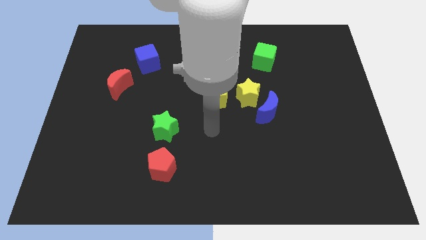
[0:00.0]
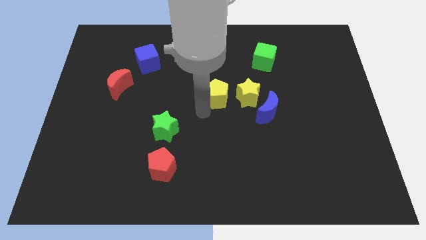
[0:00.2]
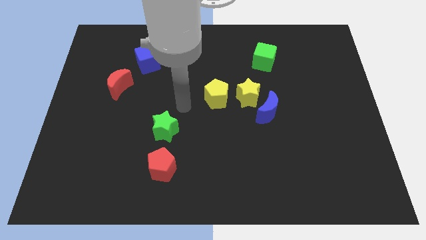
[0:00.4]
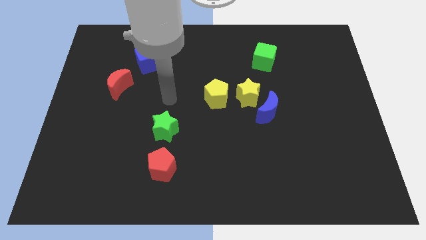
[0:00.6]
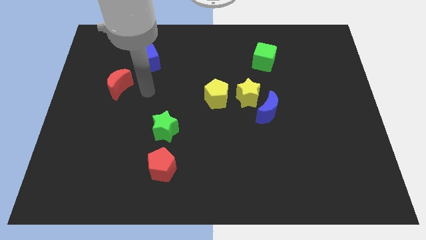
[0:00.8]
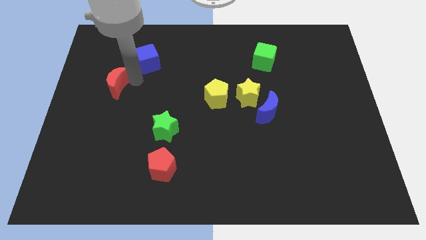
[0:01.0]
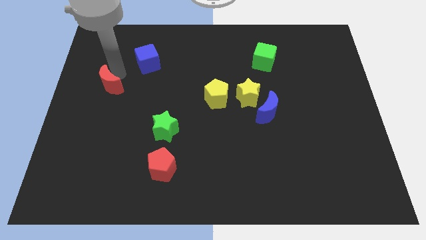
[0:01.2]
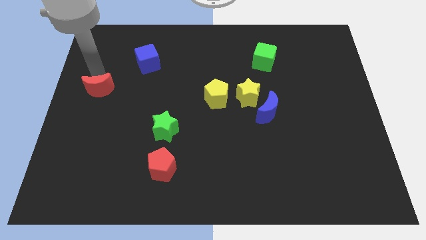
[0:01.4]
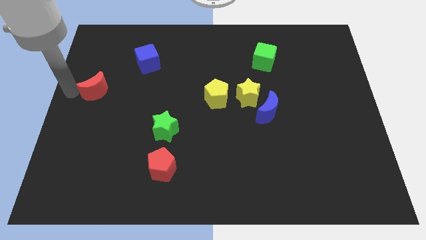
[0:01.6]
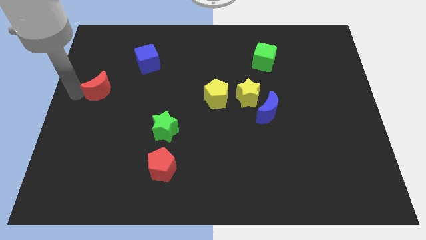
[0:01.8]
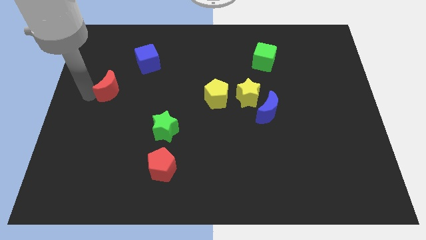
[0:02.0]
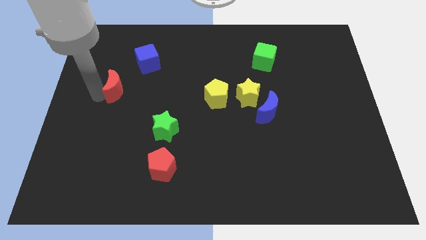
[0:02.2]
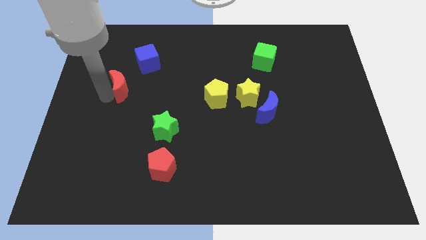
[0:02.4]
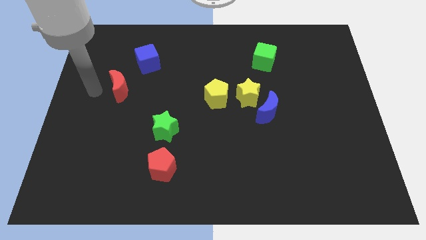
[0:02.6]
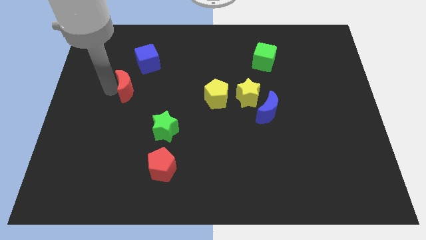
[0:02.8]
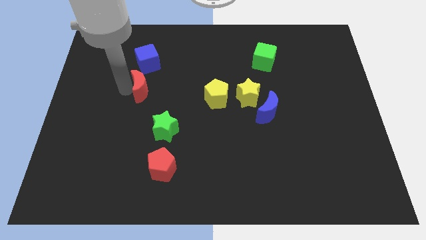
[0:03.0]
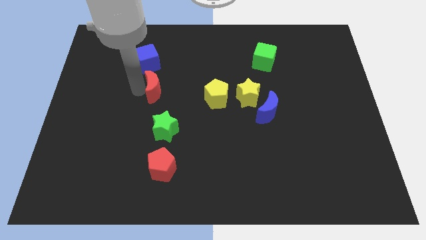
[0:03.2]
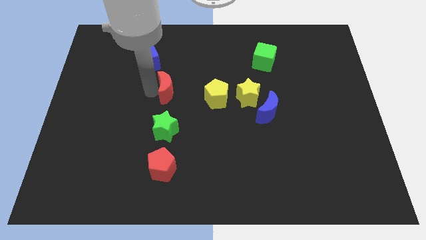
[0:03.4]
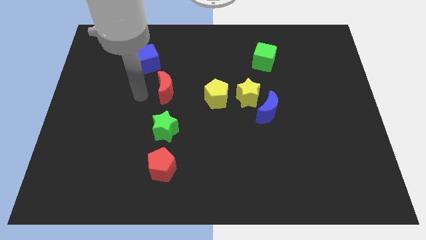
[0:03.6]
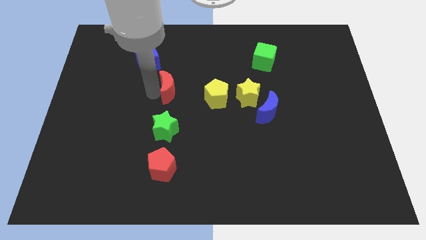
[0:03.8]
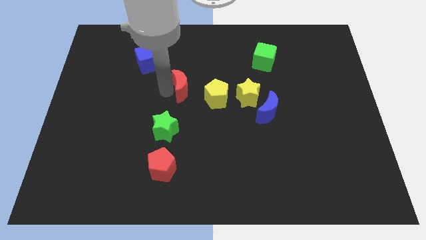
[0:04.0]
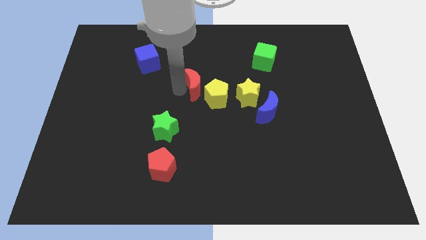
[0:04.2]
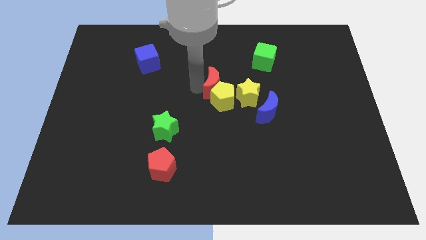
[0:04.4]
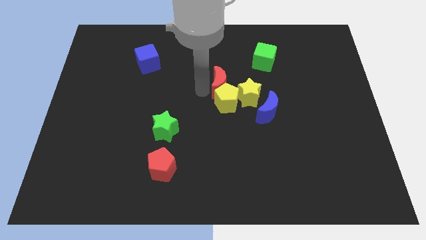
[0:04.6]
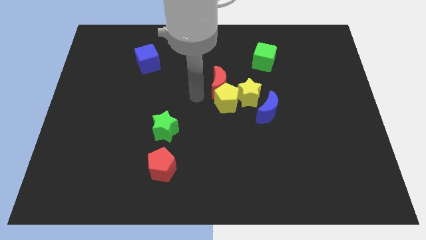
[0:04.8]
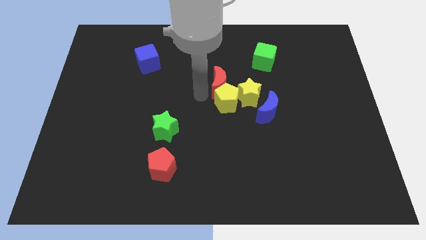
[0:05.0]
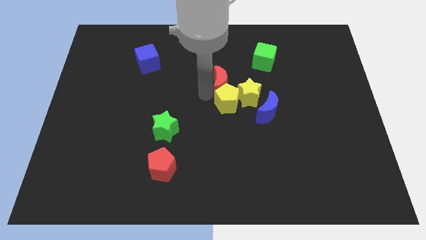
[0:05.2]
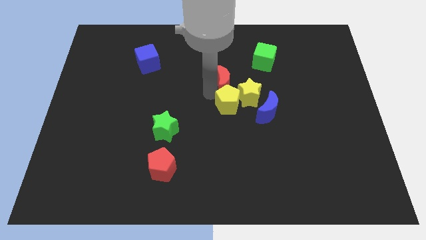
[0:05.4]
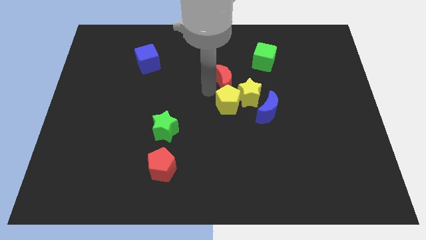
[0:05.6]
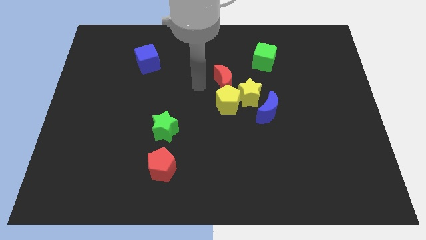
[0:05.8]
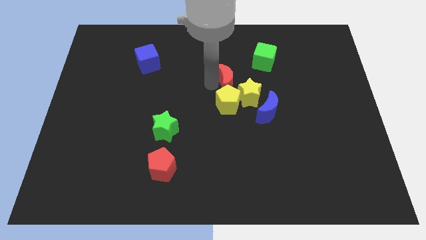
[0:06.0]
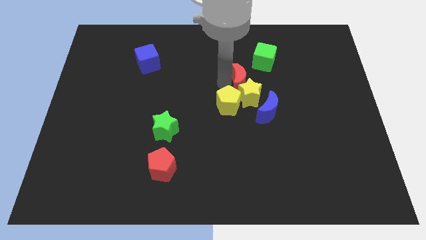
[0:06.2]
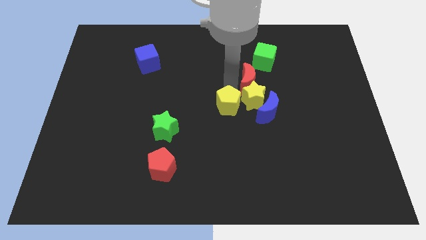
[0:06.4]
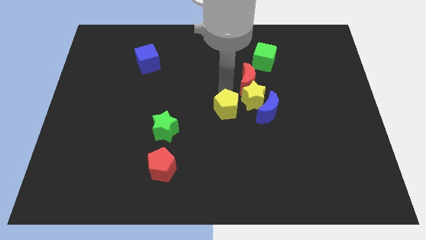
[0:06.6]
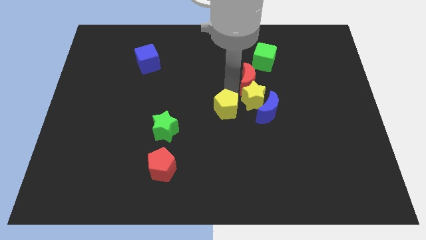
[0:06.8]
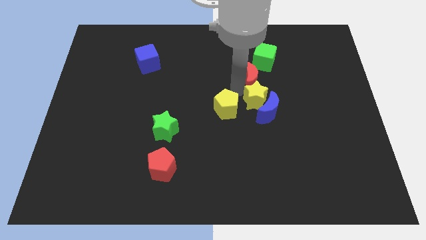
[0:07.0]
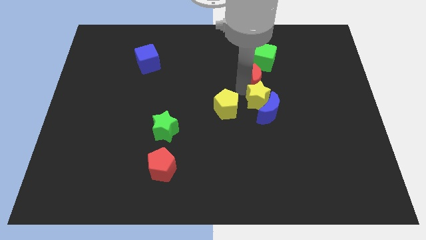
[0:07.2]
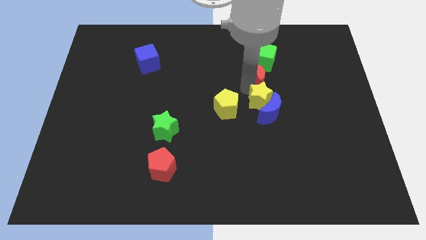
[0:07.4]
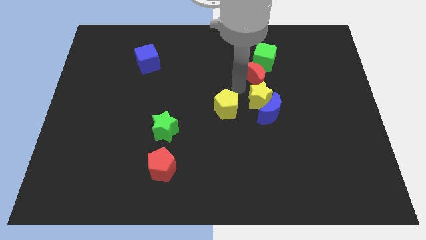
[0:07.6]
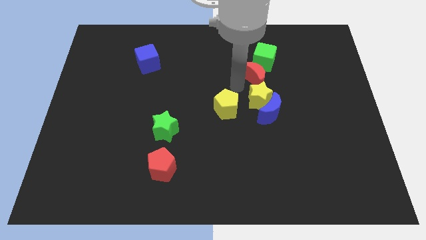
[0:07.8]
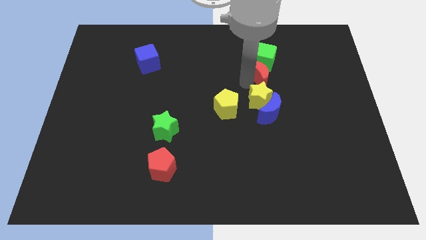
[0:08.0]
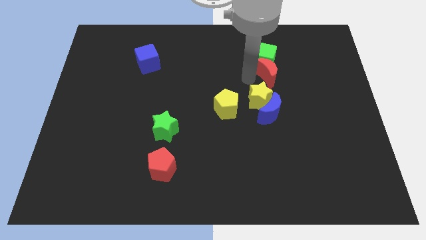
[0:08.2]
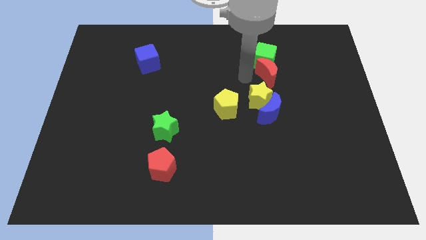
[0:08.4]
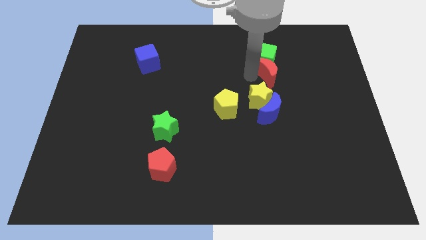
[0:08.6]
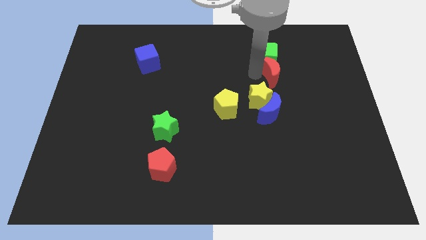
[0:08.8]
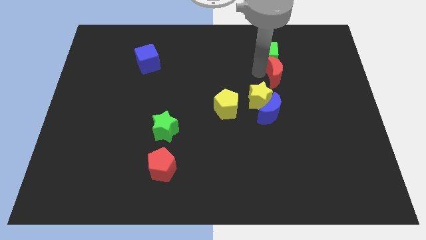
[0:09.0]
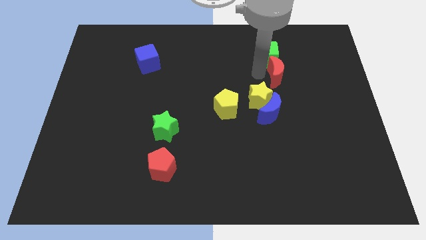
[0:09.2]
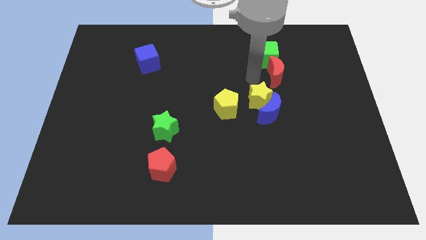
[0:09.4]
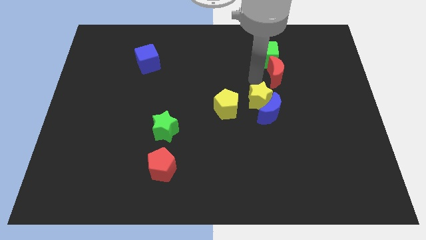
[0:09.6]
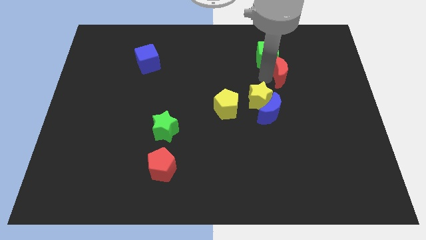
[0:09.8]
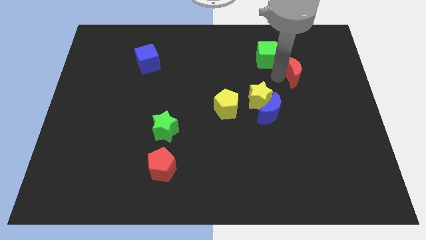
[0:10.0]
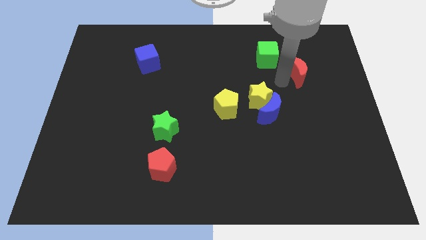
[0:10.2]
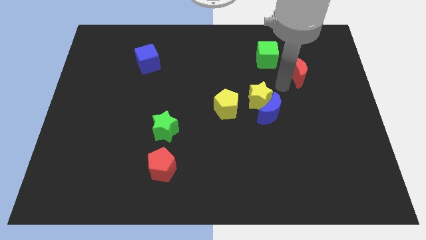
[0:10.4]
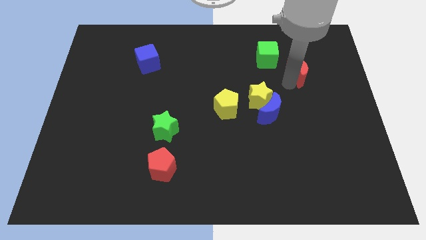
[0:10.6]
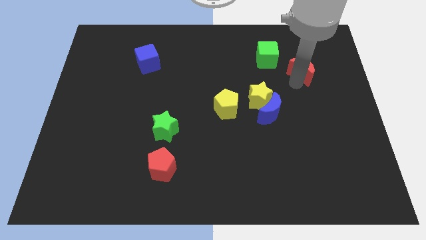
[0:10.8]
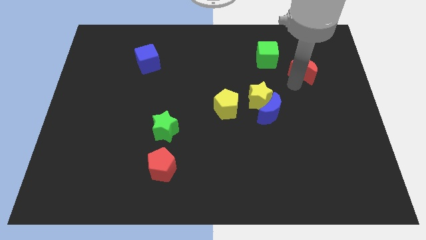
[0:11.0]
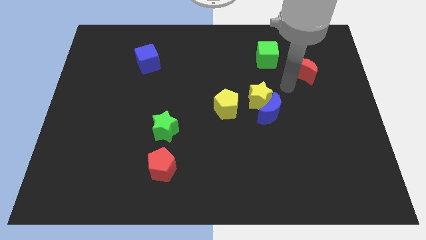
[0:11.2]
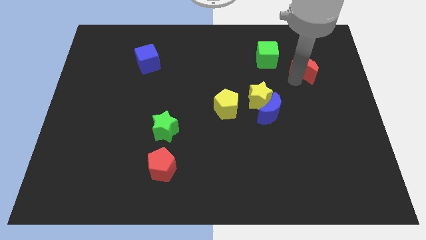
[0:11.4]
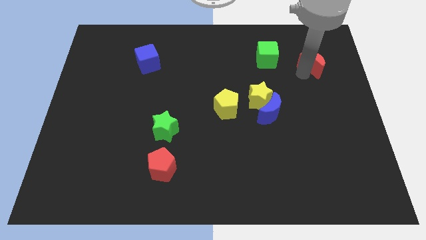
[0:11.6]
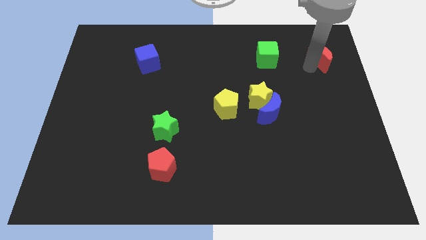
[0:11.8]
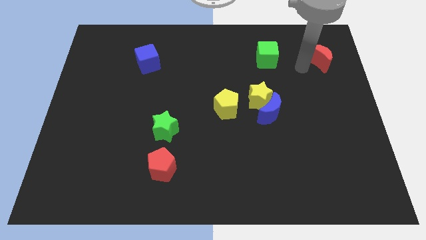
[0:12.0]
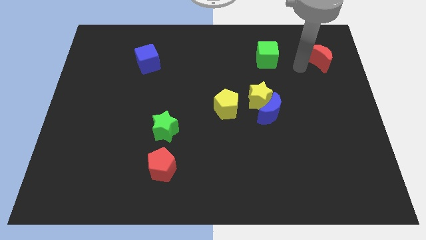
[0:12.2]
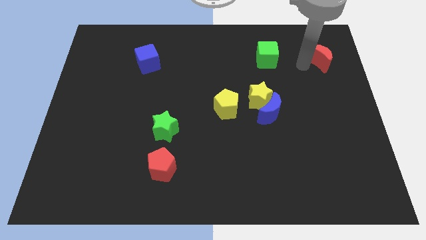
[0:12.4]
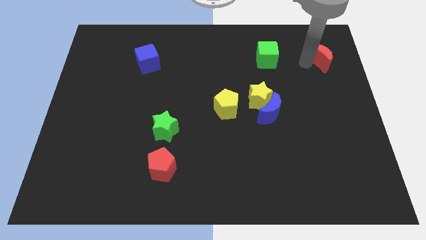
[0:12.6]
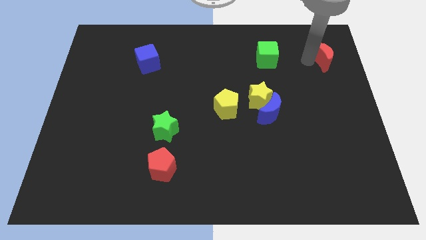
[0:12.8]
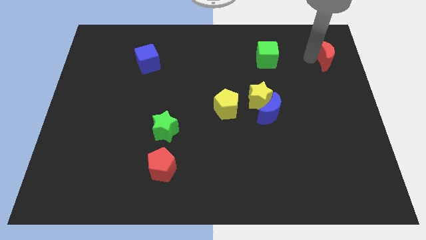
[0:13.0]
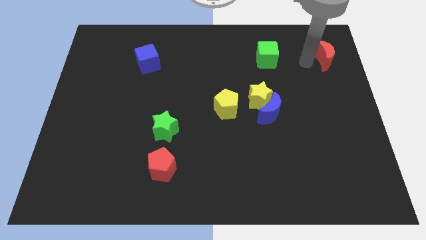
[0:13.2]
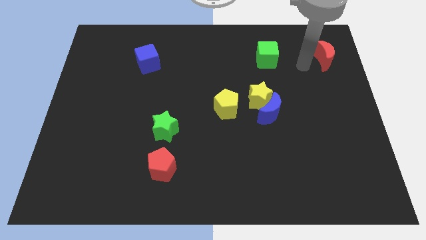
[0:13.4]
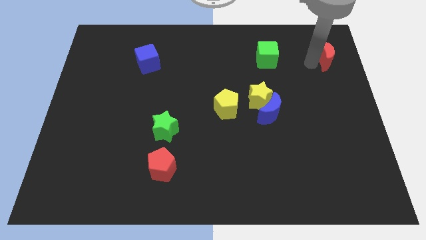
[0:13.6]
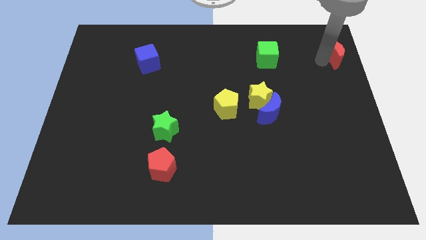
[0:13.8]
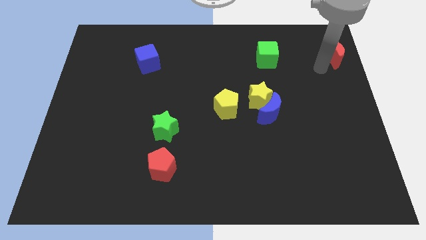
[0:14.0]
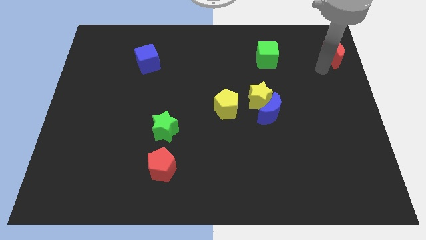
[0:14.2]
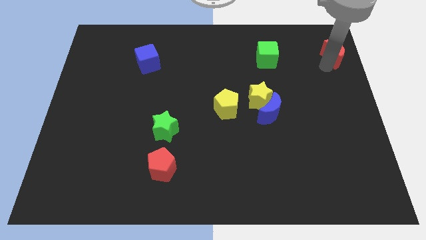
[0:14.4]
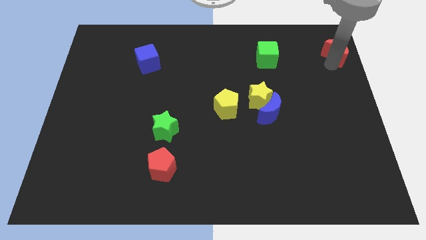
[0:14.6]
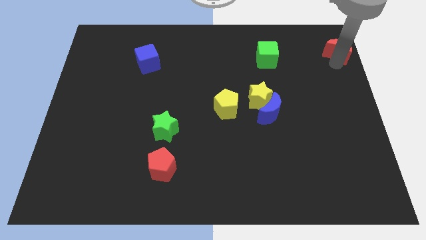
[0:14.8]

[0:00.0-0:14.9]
put the red moon to the top right of the board
